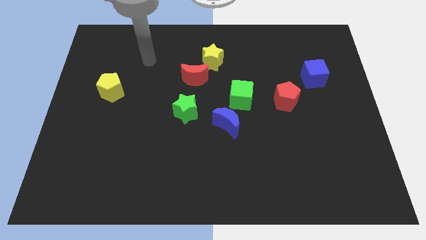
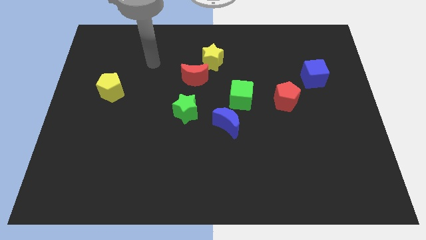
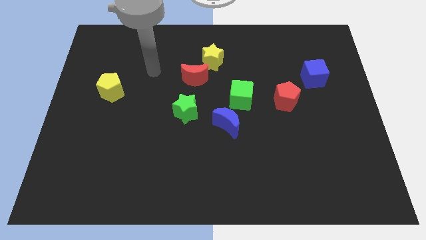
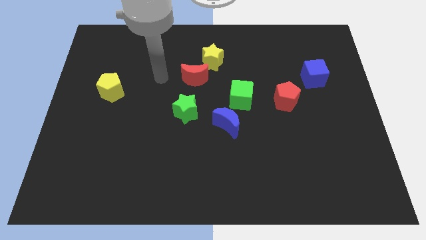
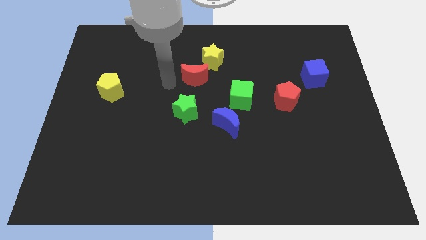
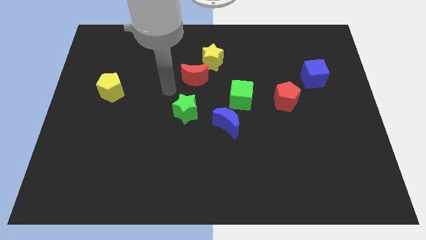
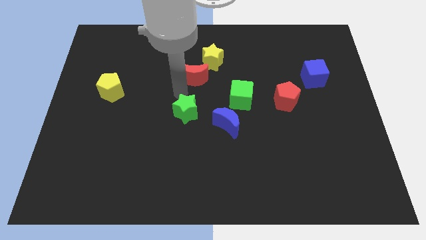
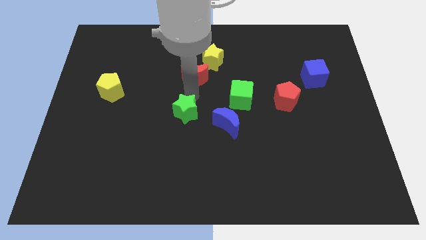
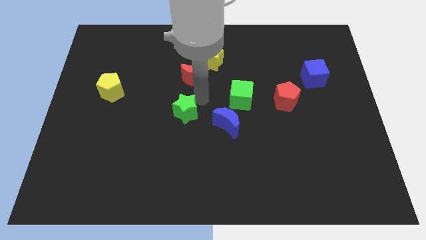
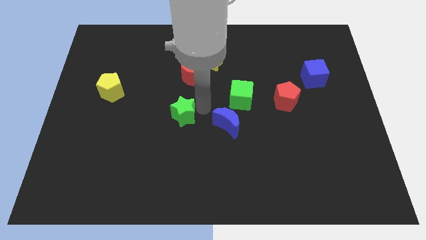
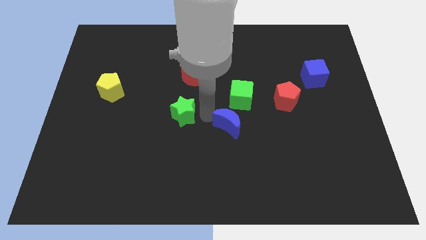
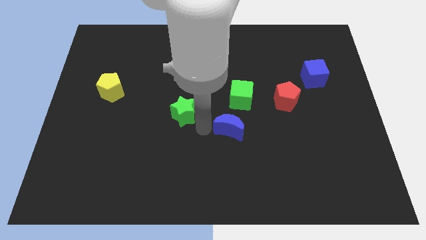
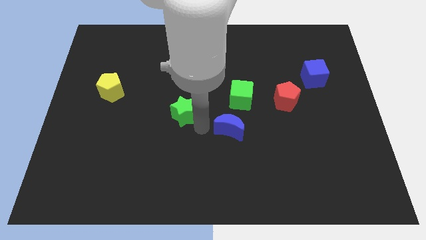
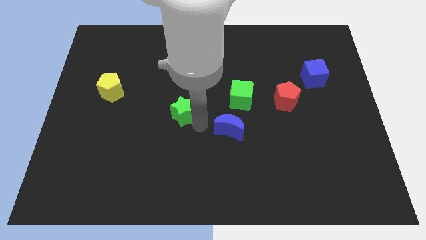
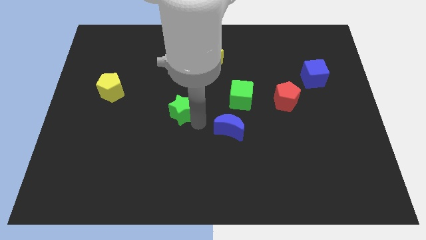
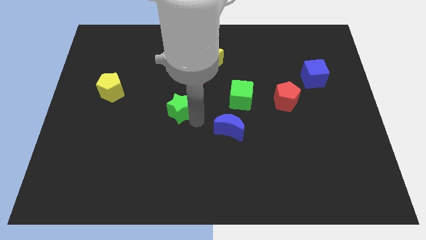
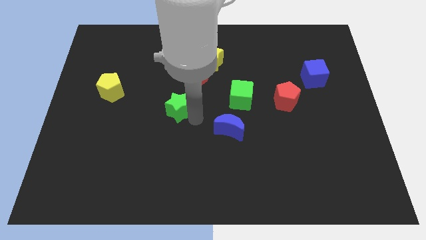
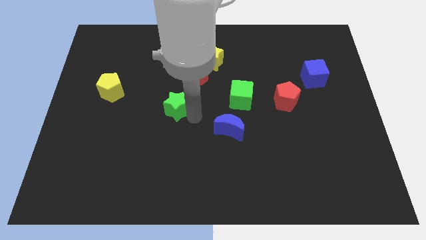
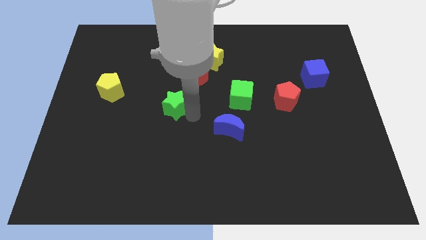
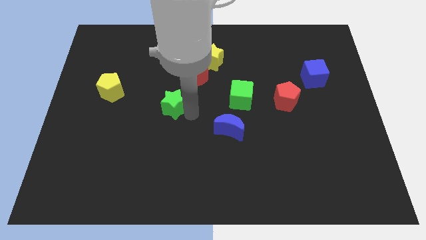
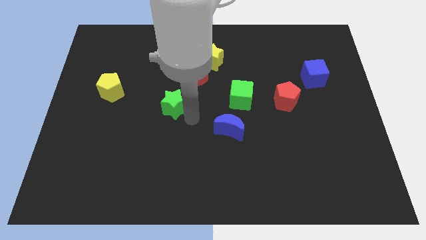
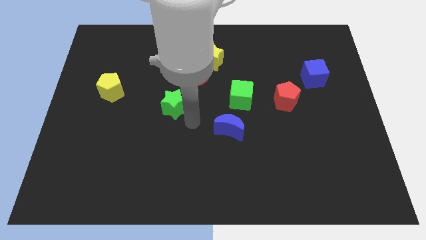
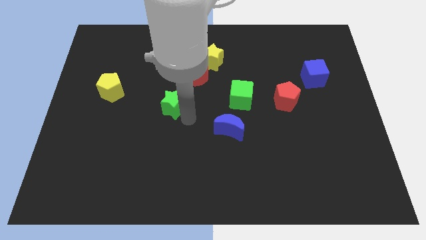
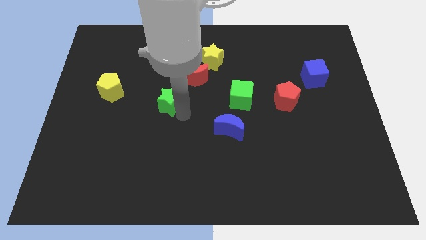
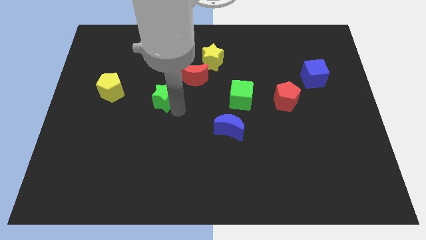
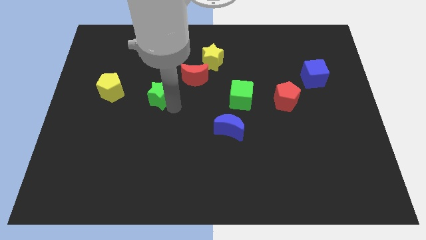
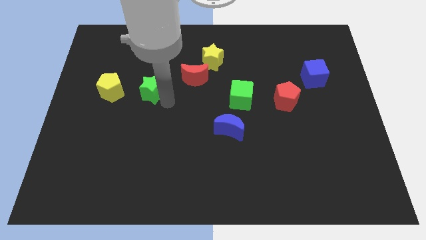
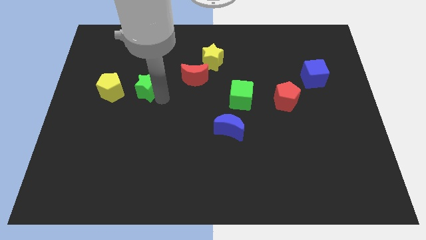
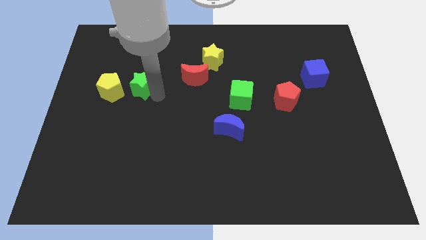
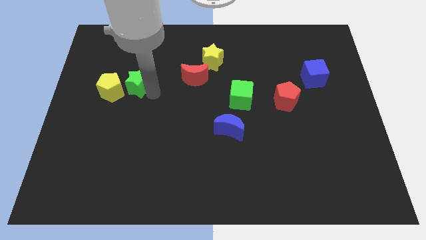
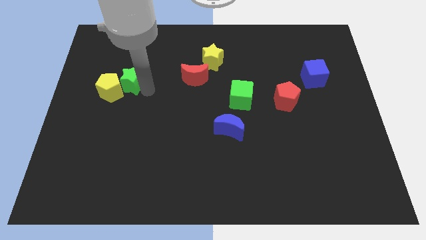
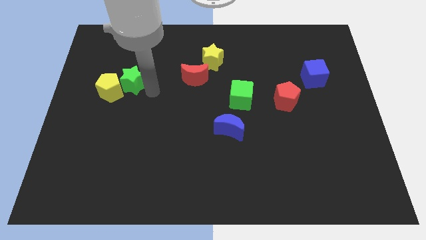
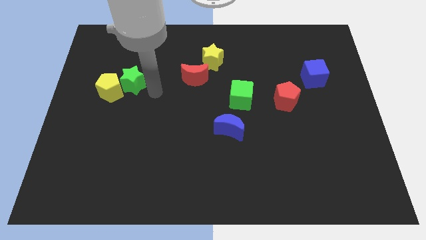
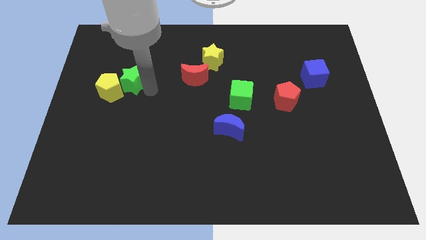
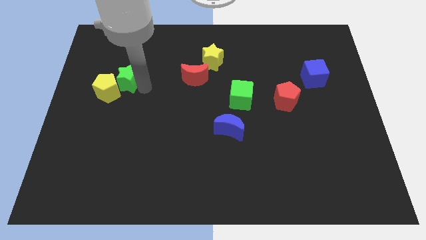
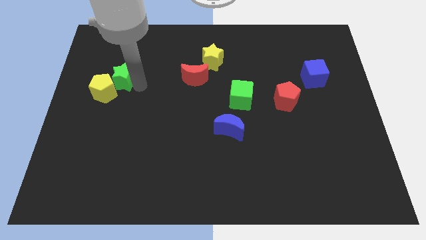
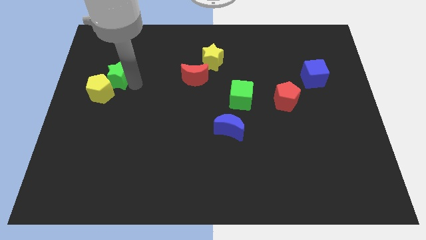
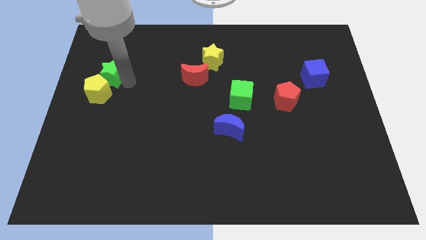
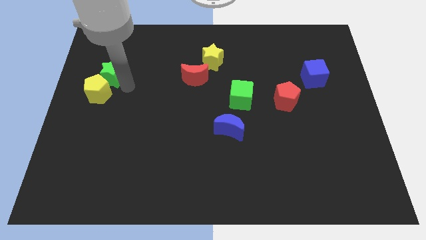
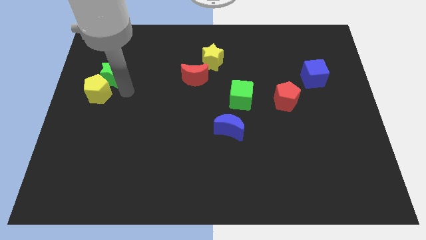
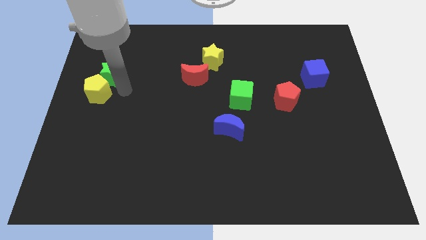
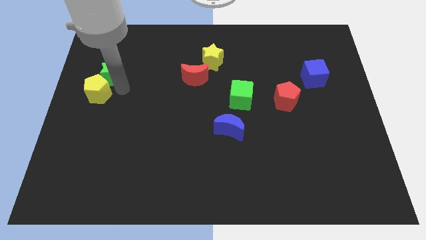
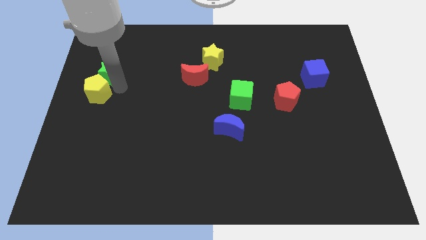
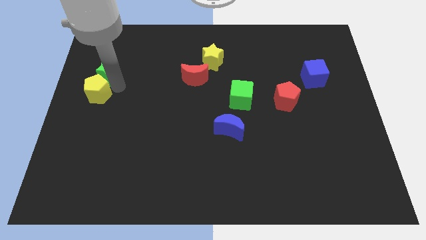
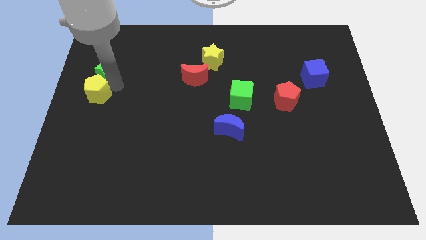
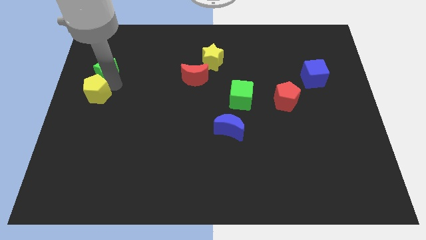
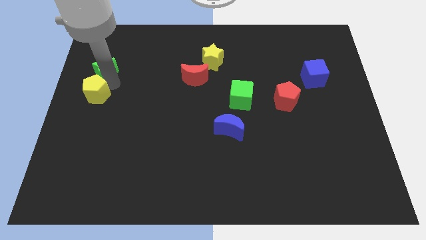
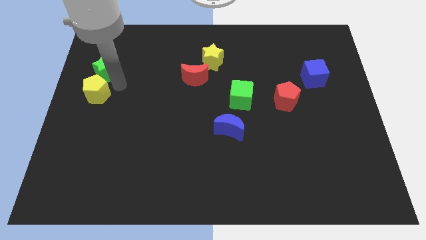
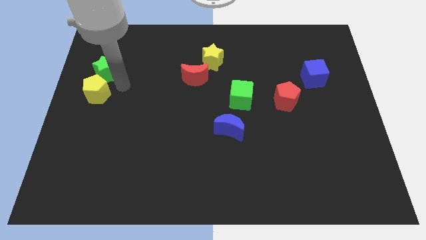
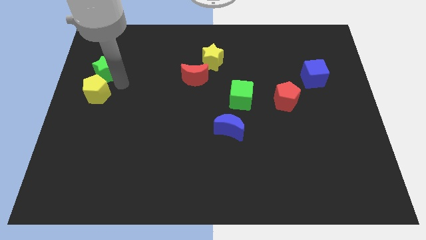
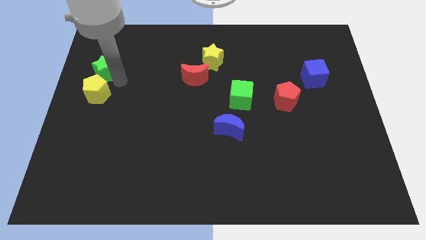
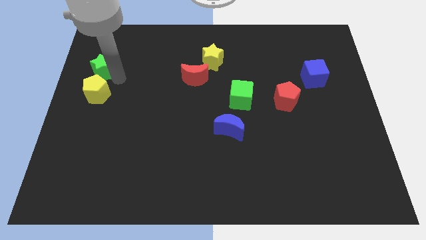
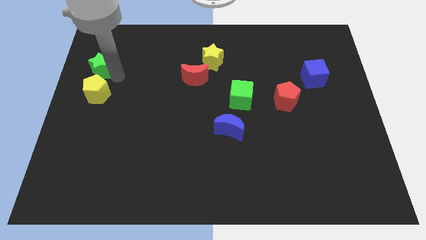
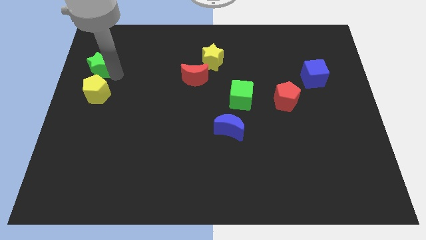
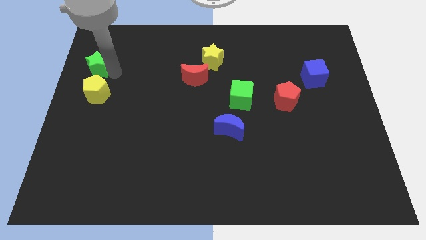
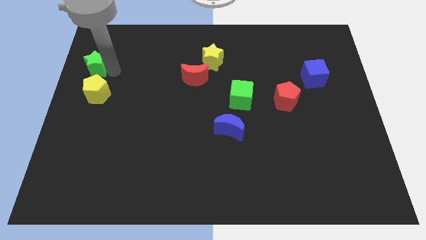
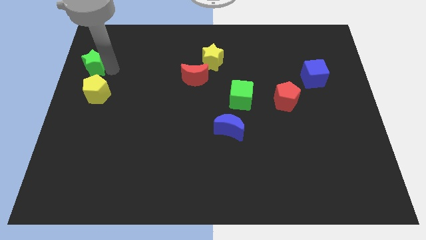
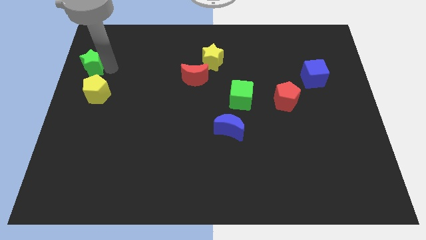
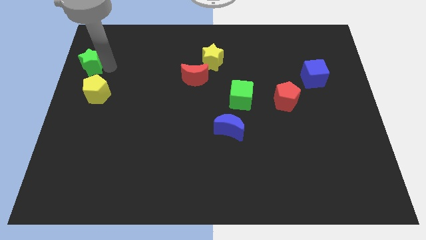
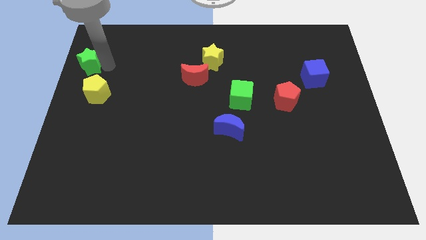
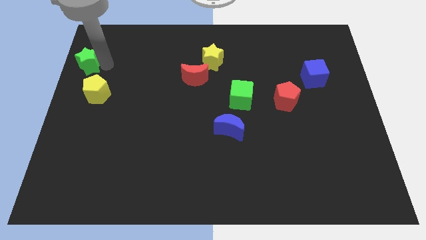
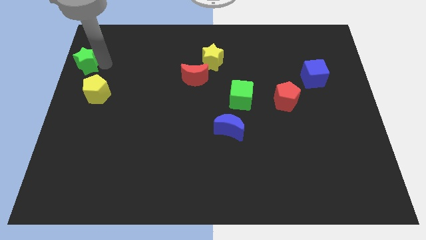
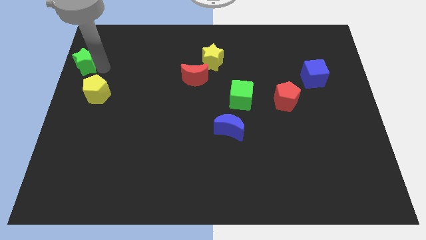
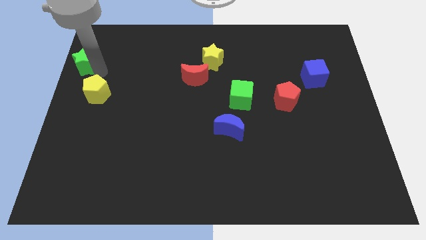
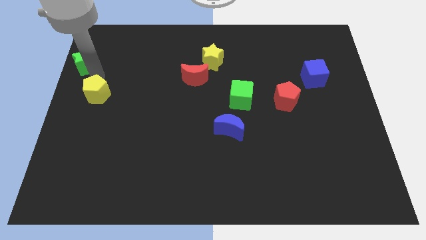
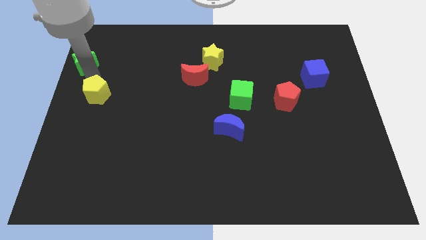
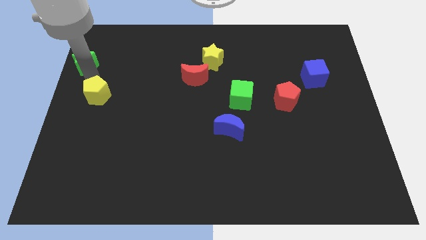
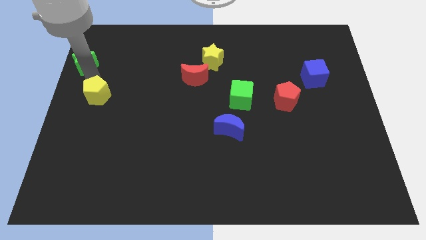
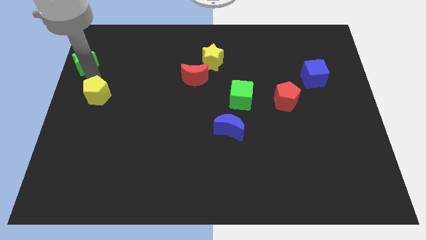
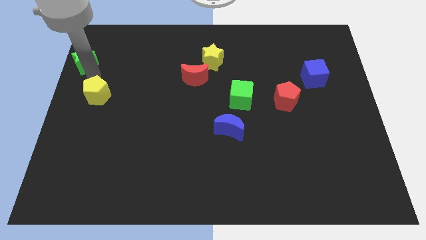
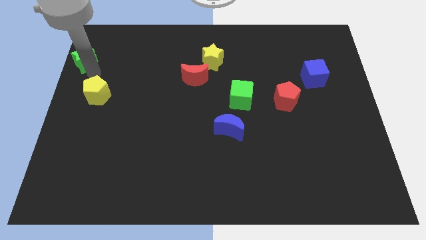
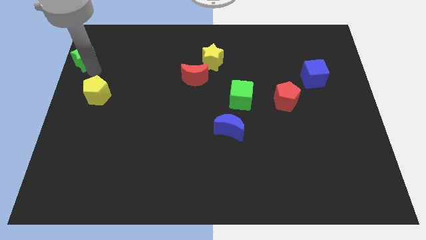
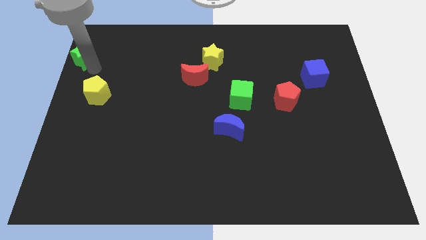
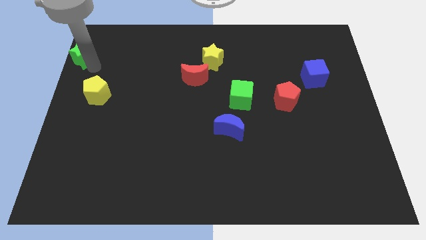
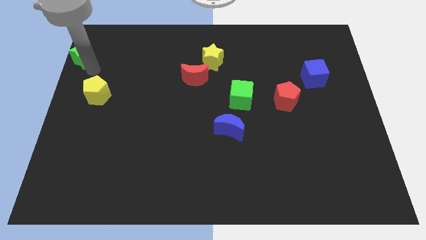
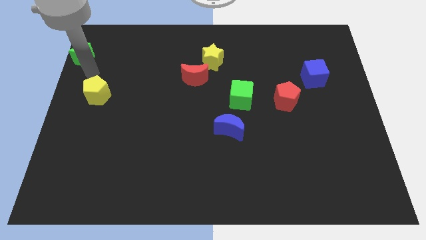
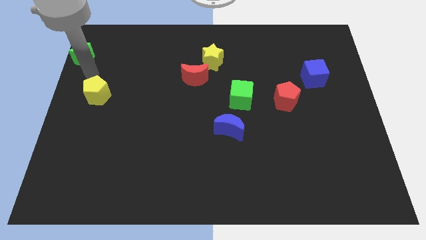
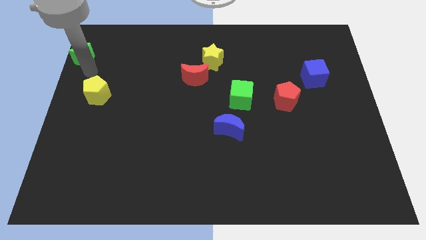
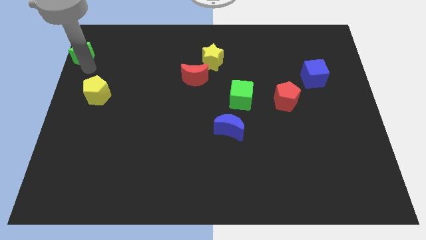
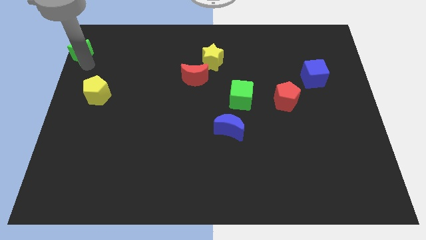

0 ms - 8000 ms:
put the green star to the top left
